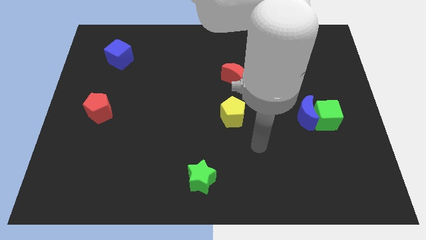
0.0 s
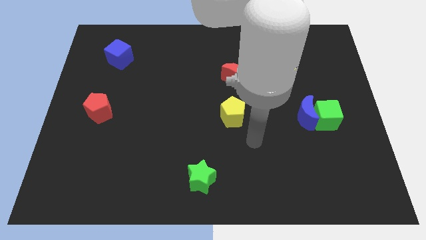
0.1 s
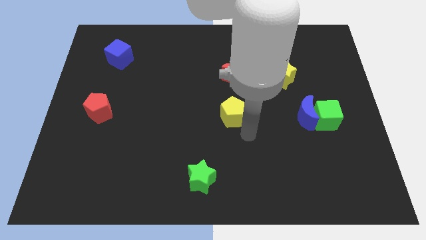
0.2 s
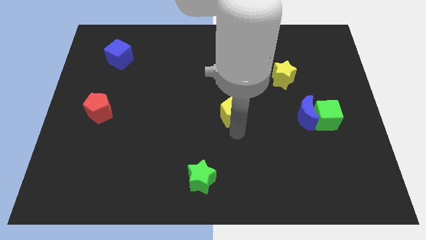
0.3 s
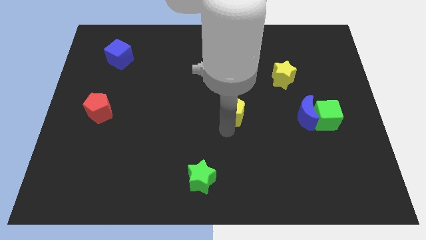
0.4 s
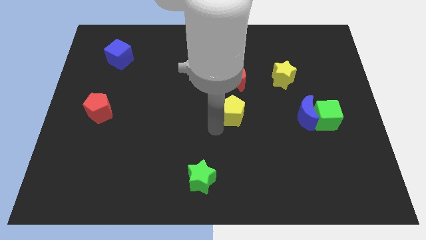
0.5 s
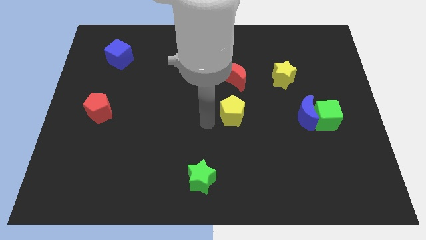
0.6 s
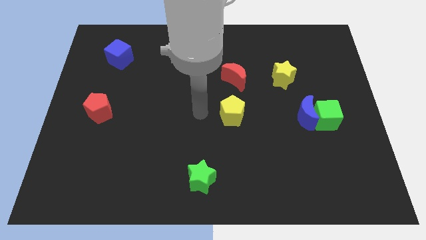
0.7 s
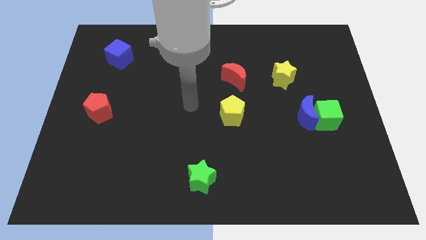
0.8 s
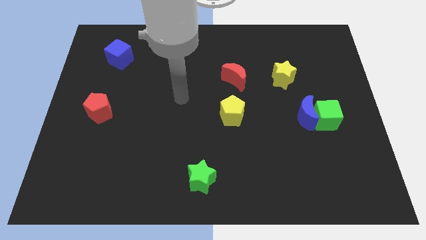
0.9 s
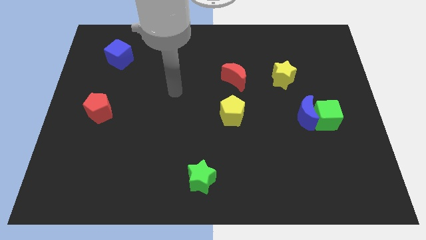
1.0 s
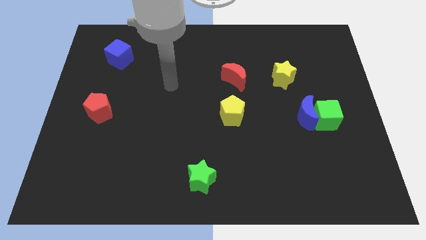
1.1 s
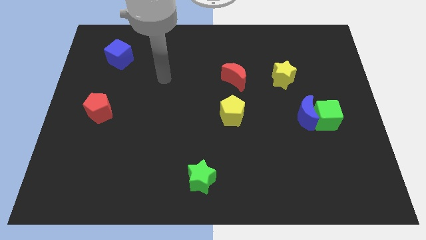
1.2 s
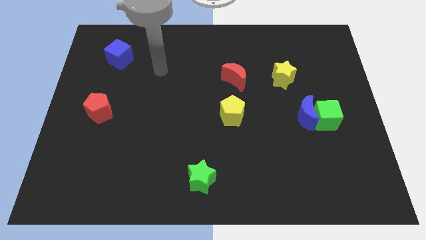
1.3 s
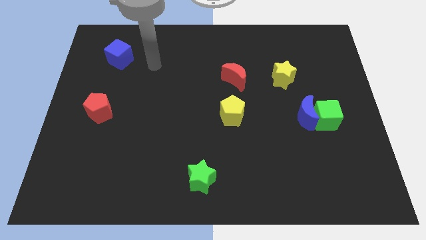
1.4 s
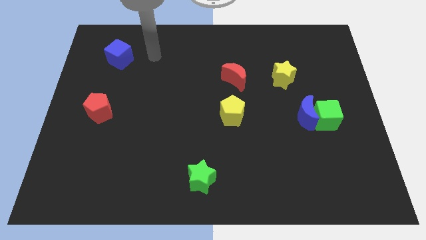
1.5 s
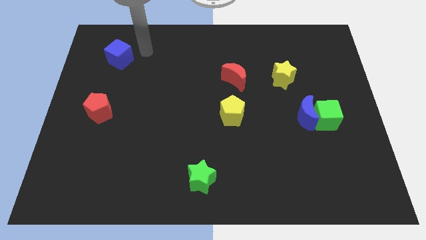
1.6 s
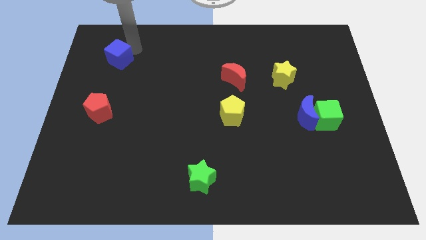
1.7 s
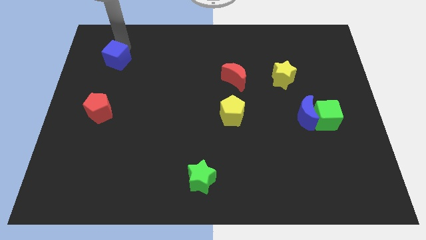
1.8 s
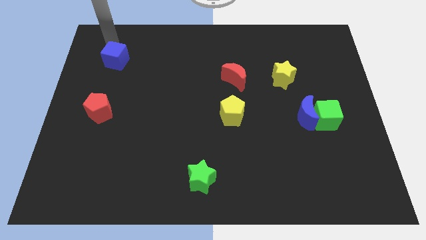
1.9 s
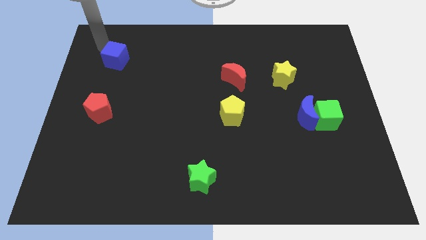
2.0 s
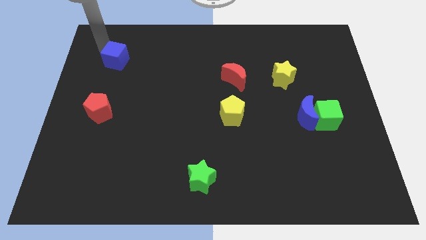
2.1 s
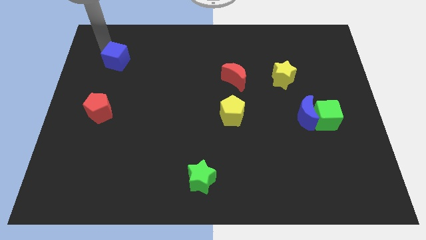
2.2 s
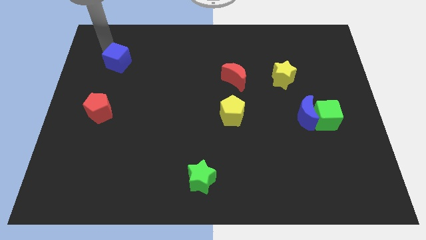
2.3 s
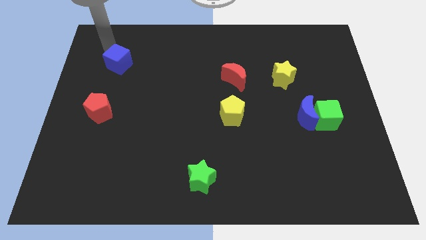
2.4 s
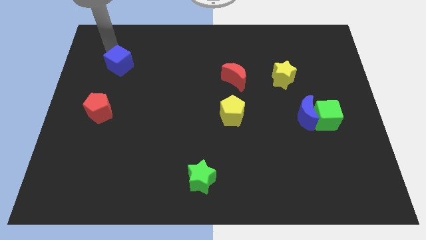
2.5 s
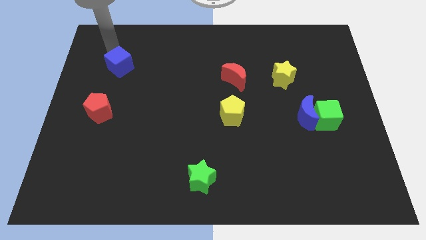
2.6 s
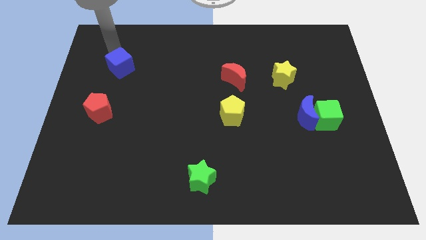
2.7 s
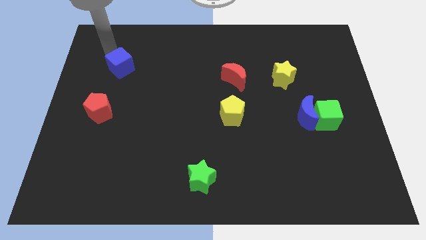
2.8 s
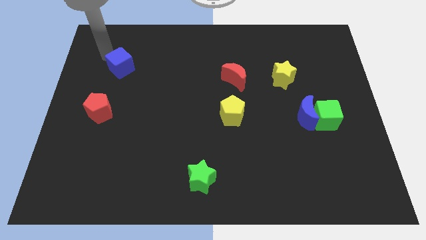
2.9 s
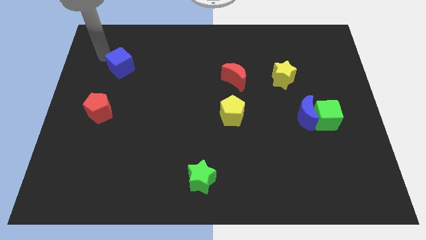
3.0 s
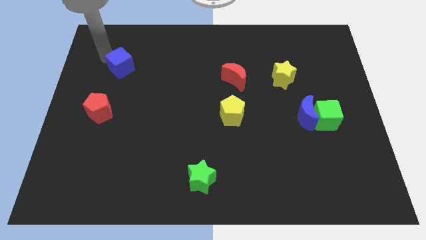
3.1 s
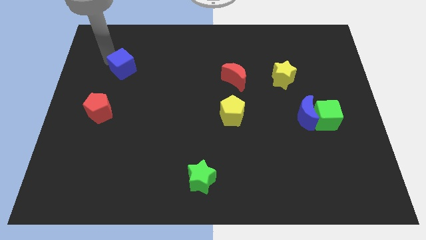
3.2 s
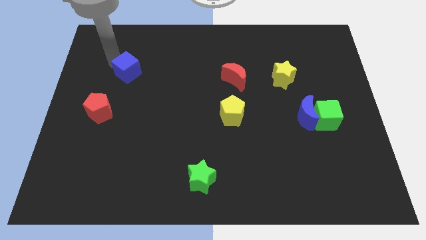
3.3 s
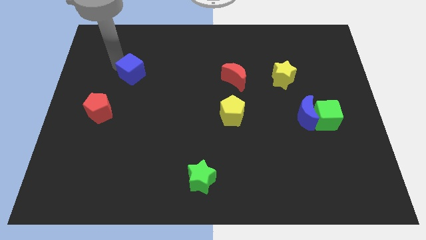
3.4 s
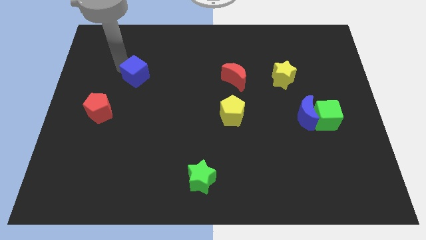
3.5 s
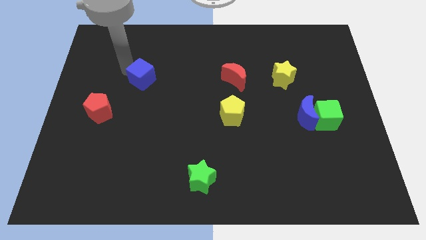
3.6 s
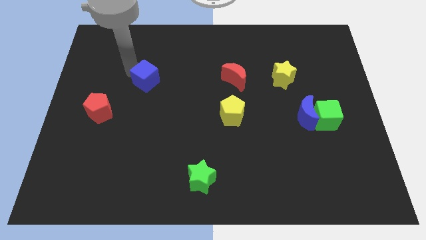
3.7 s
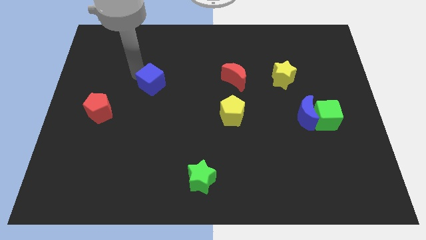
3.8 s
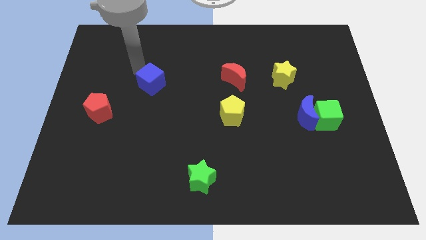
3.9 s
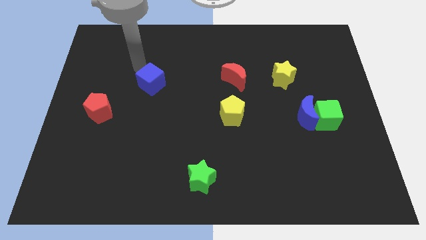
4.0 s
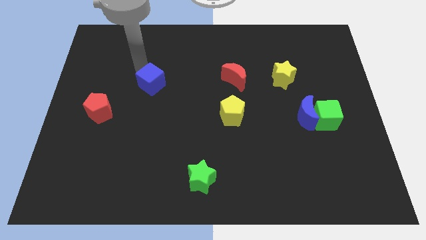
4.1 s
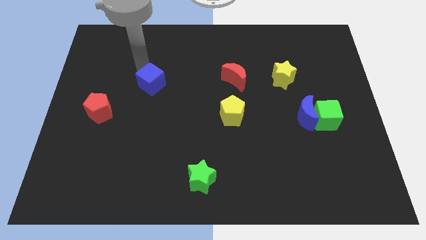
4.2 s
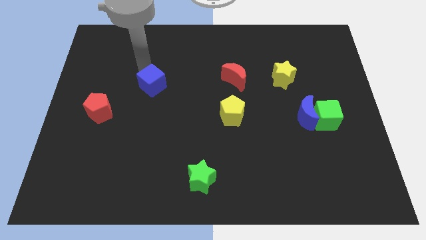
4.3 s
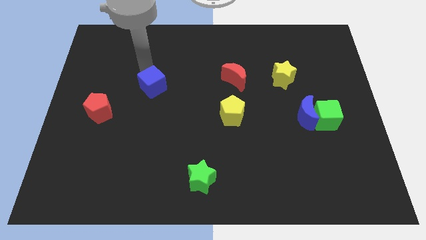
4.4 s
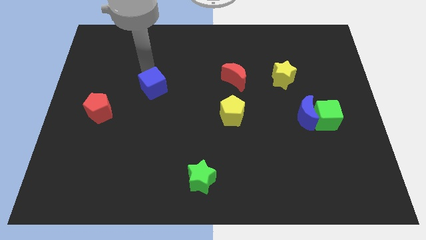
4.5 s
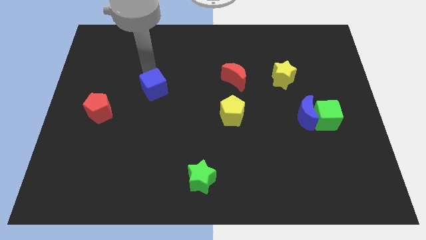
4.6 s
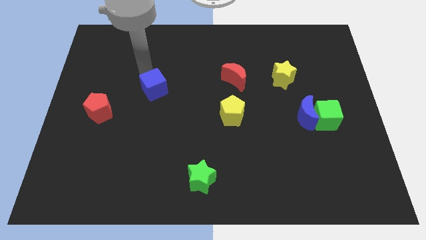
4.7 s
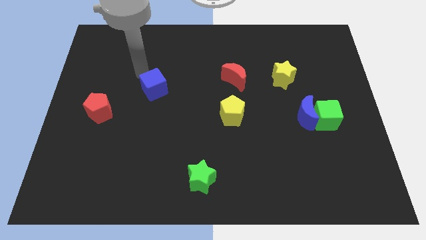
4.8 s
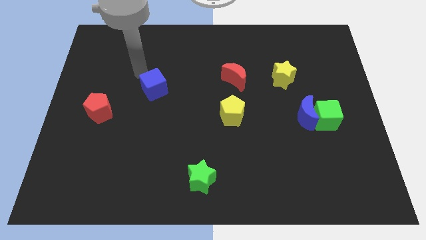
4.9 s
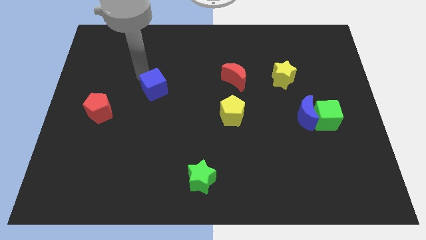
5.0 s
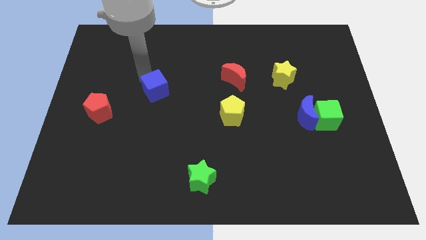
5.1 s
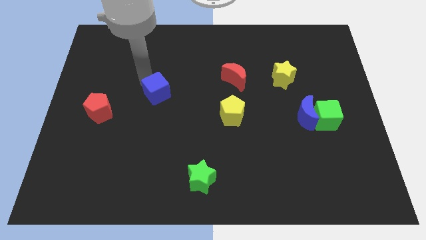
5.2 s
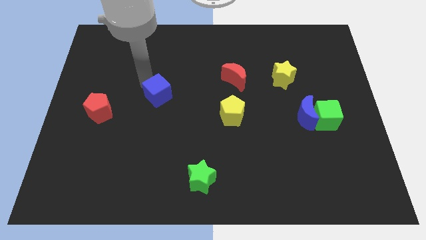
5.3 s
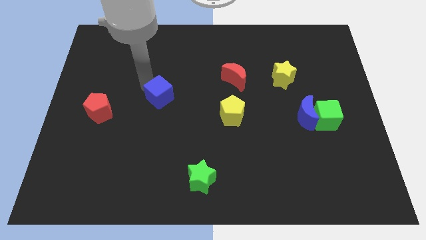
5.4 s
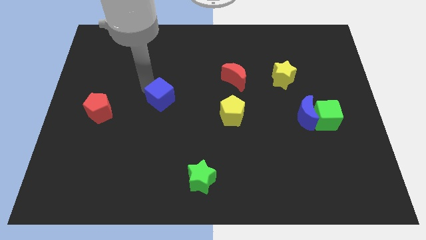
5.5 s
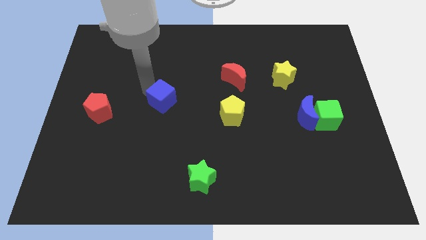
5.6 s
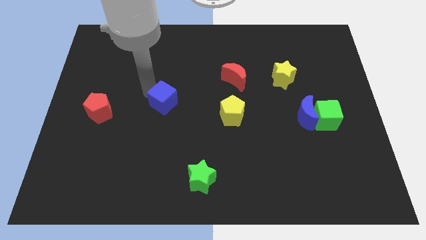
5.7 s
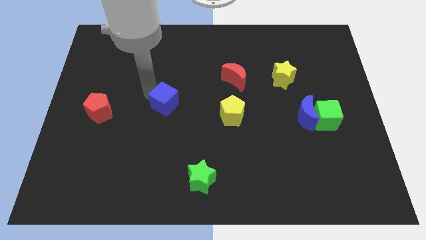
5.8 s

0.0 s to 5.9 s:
push the blue cube downwards and right diagonally

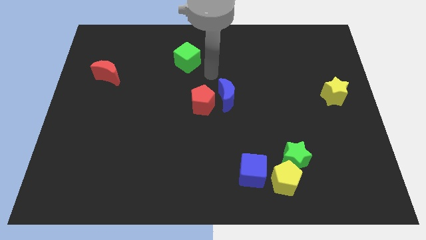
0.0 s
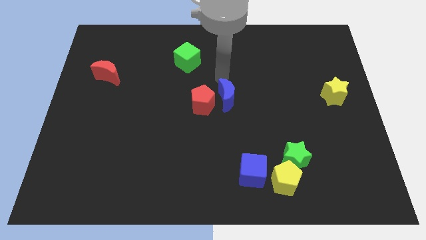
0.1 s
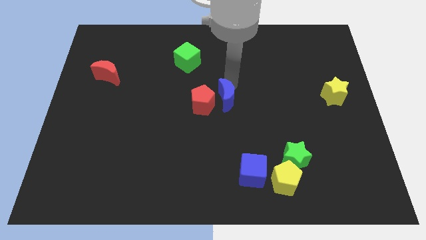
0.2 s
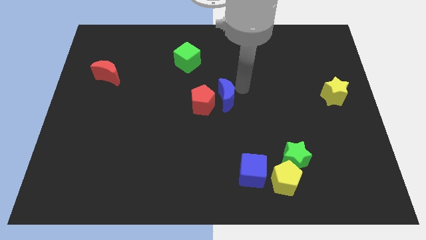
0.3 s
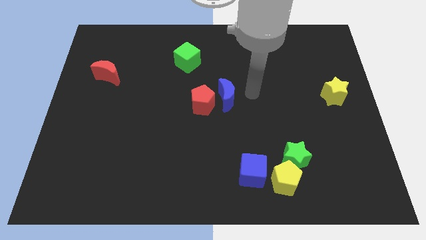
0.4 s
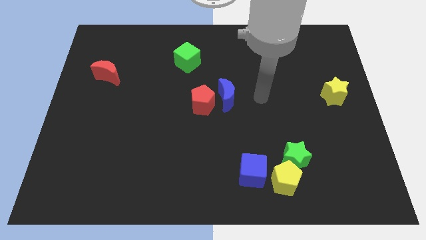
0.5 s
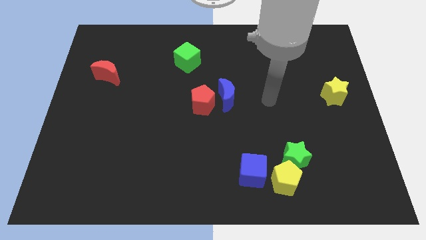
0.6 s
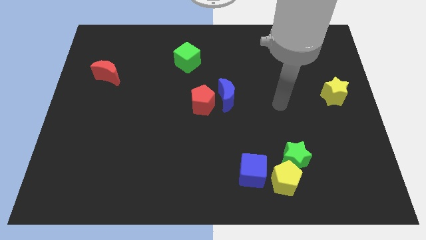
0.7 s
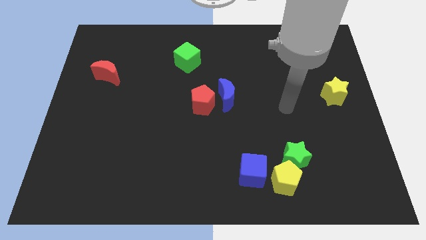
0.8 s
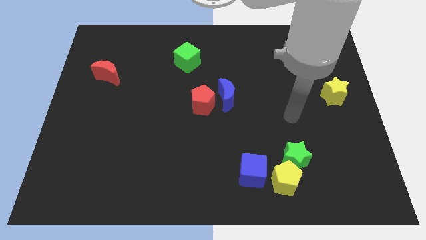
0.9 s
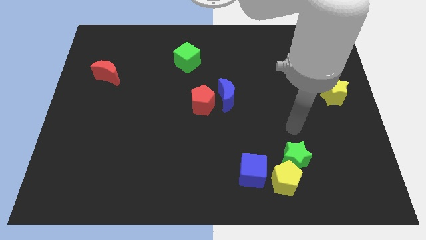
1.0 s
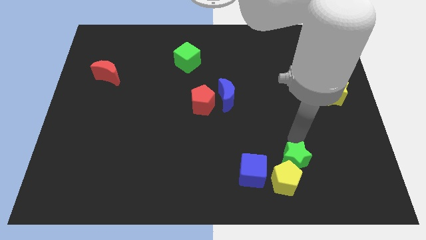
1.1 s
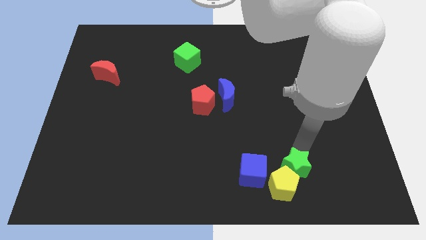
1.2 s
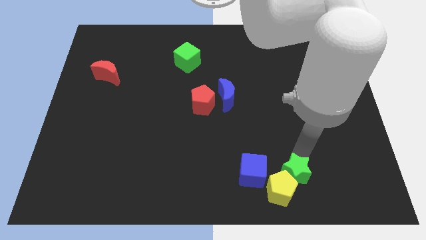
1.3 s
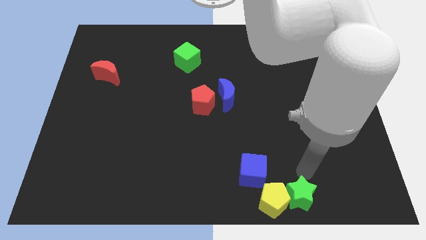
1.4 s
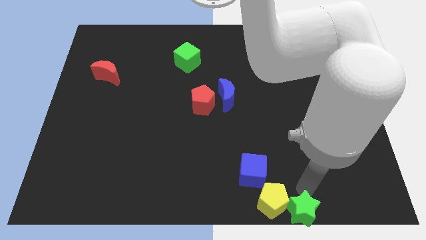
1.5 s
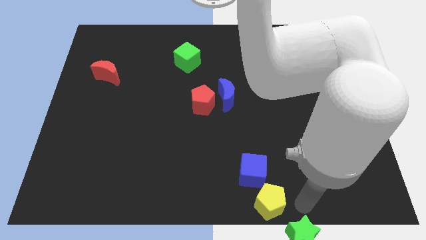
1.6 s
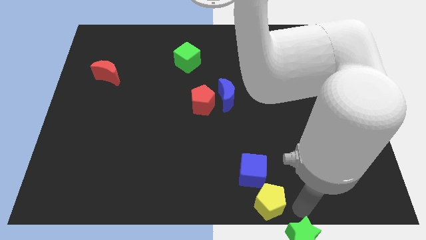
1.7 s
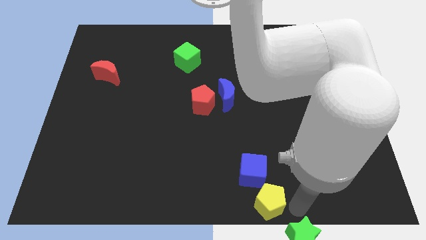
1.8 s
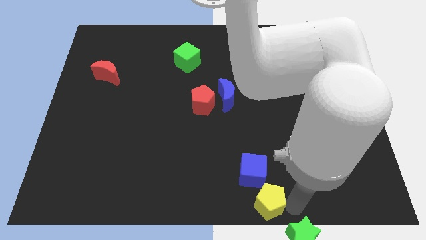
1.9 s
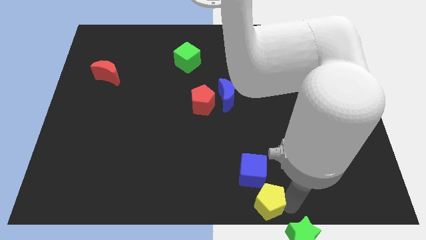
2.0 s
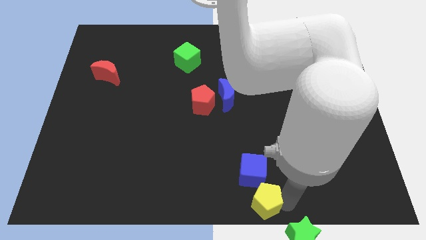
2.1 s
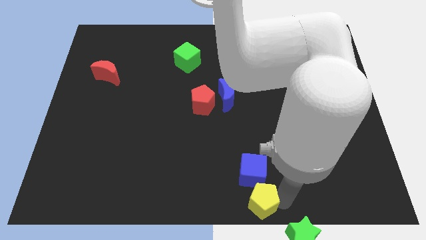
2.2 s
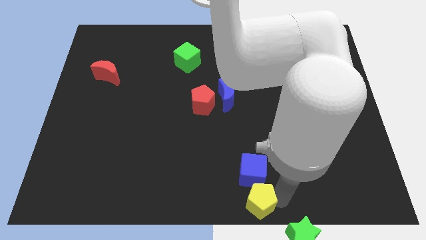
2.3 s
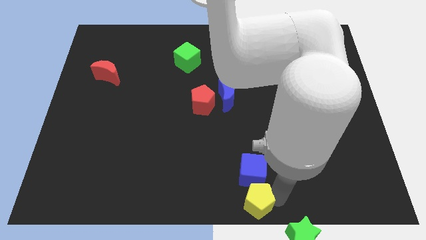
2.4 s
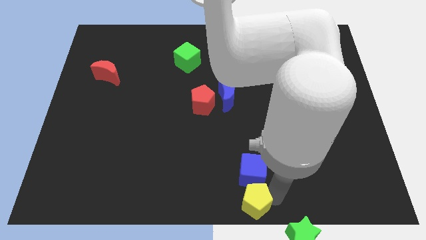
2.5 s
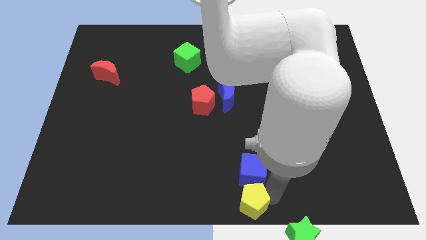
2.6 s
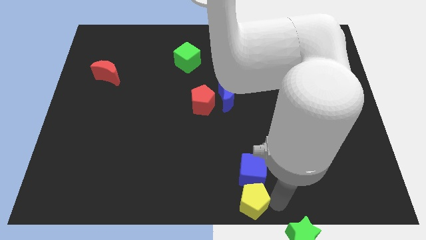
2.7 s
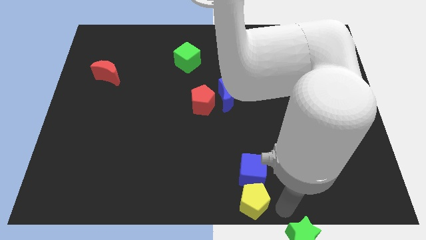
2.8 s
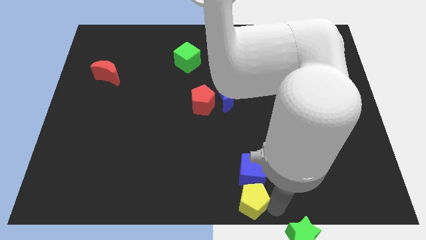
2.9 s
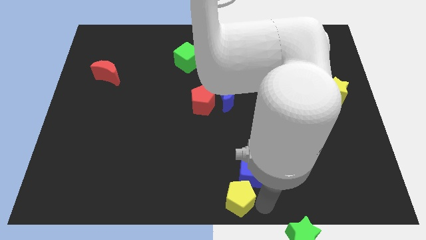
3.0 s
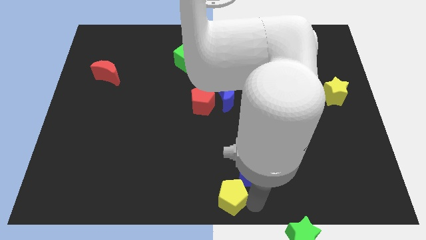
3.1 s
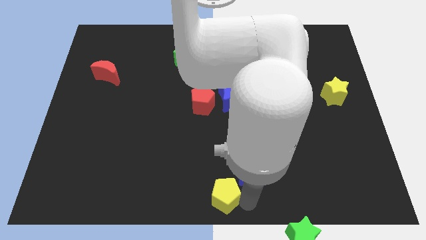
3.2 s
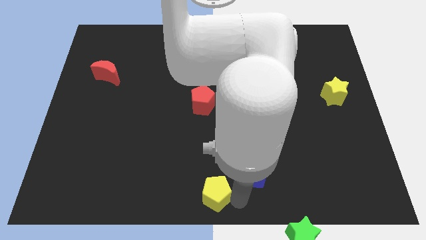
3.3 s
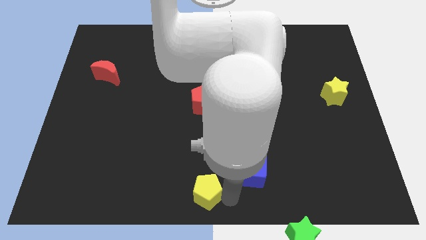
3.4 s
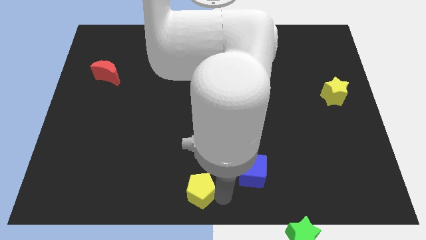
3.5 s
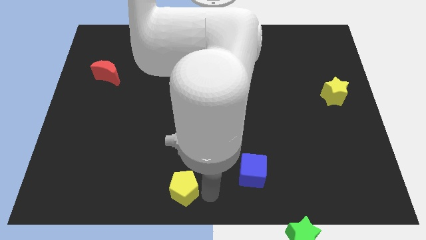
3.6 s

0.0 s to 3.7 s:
push the yellow pentagon to the left
